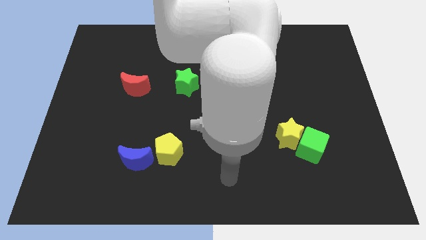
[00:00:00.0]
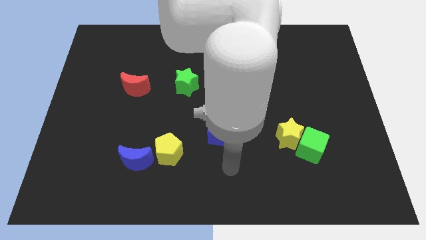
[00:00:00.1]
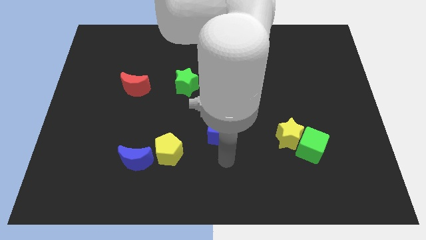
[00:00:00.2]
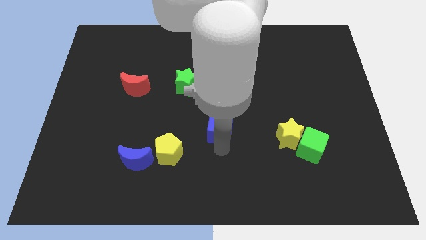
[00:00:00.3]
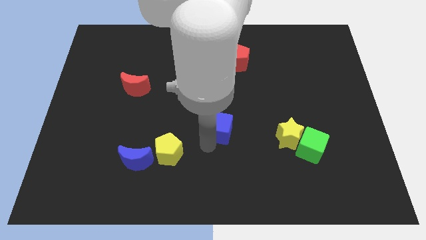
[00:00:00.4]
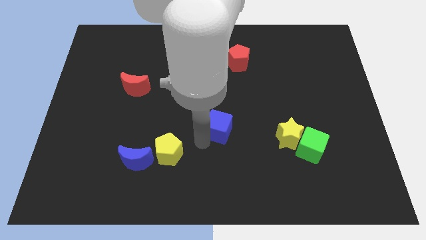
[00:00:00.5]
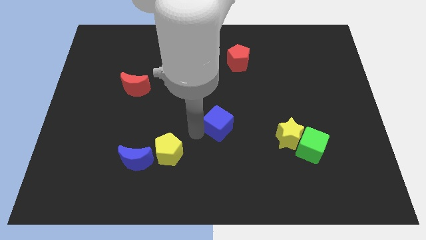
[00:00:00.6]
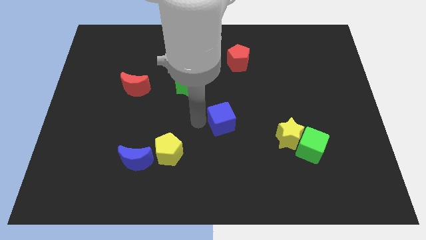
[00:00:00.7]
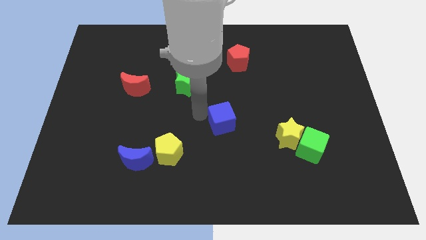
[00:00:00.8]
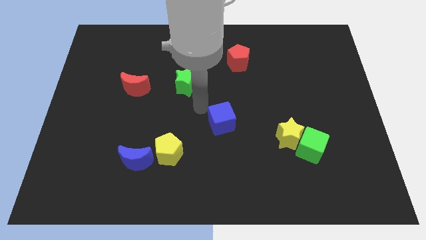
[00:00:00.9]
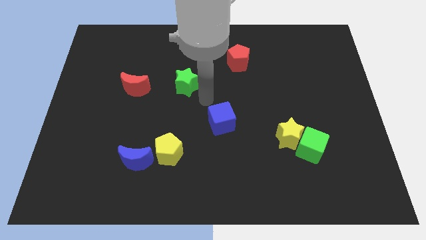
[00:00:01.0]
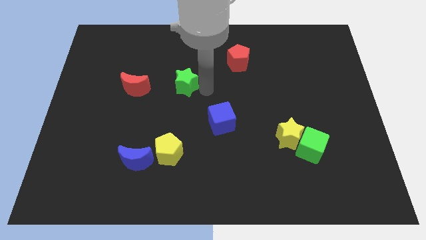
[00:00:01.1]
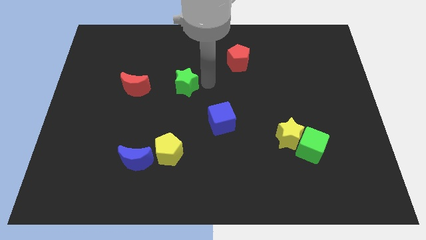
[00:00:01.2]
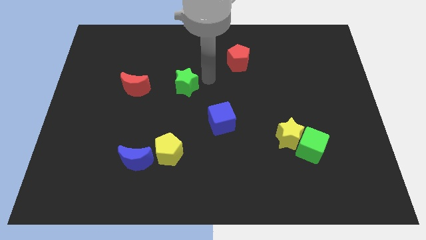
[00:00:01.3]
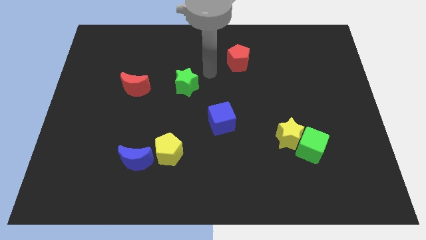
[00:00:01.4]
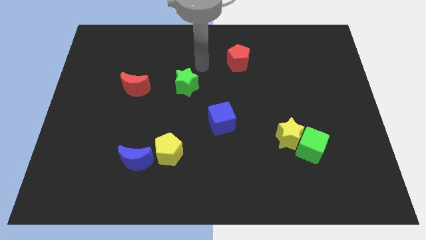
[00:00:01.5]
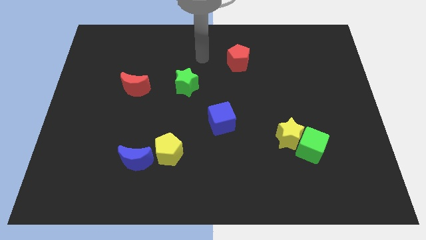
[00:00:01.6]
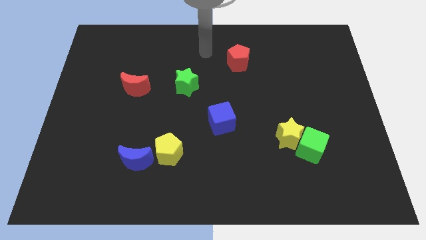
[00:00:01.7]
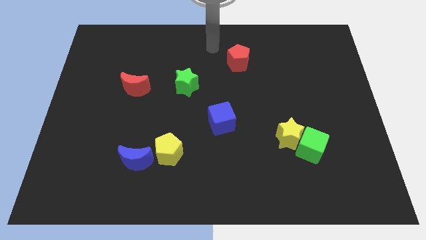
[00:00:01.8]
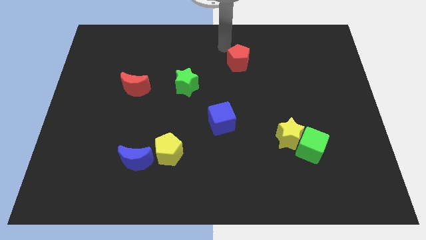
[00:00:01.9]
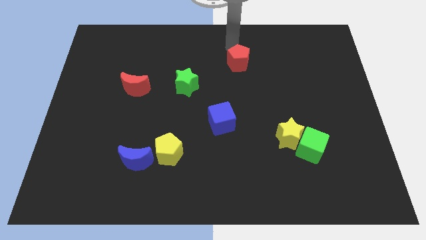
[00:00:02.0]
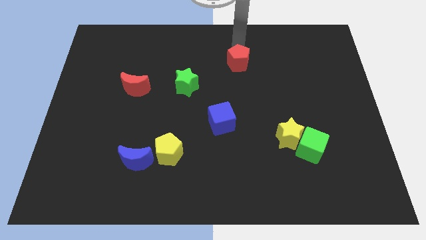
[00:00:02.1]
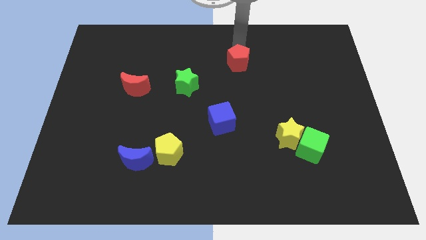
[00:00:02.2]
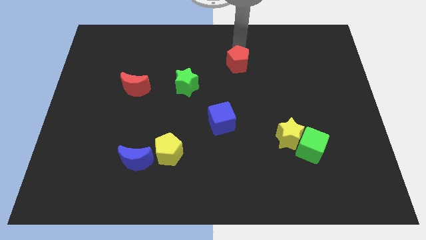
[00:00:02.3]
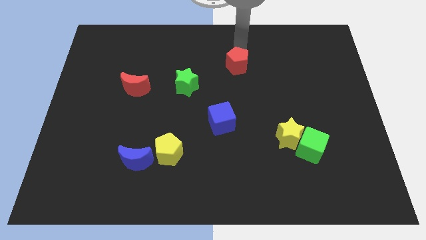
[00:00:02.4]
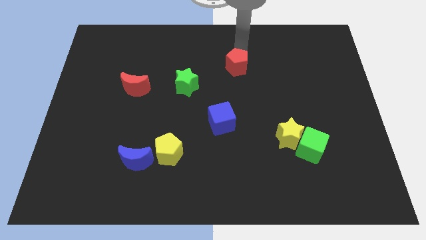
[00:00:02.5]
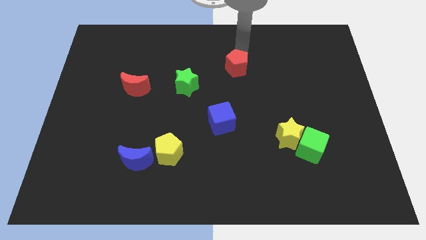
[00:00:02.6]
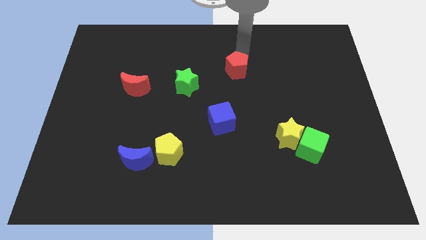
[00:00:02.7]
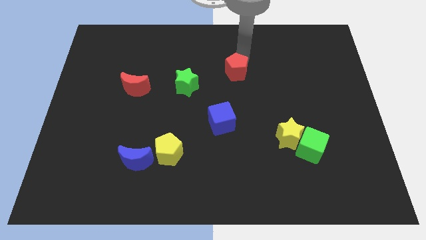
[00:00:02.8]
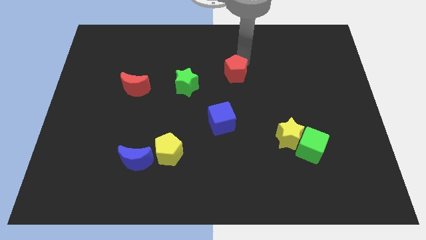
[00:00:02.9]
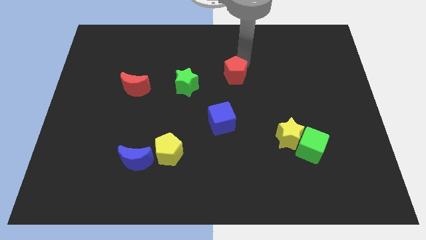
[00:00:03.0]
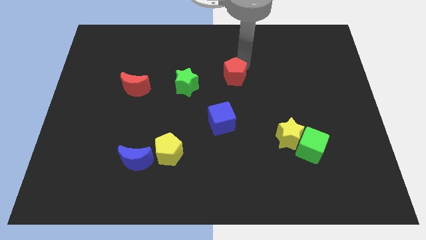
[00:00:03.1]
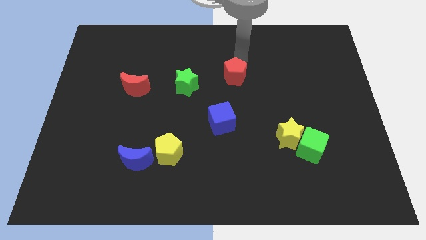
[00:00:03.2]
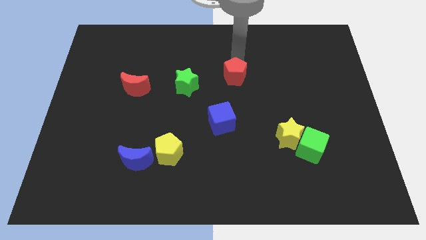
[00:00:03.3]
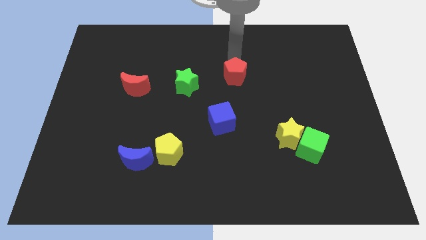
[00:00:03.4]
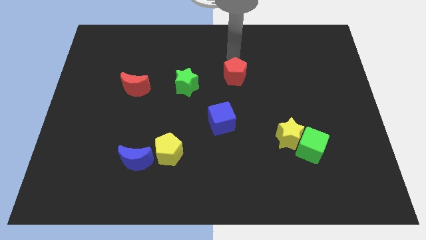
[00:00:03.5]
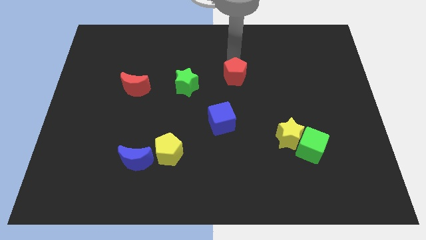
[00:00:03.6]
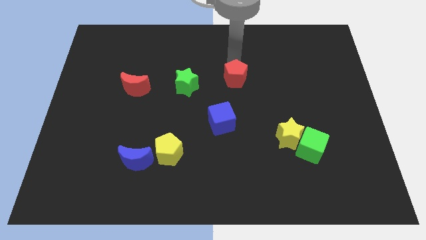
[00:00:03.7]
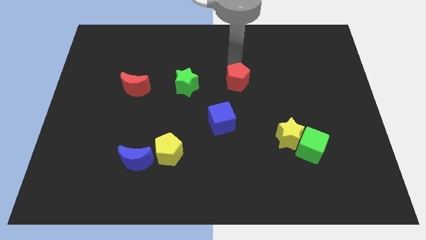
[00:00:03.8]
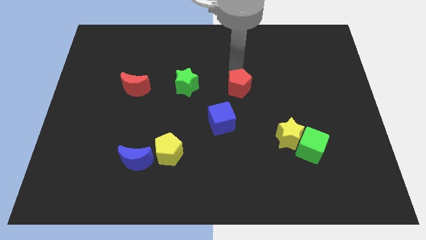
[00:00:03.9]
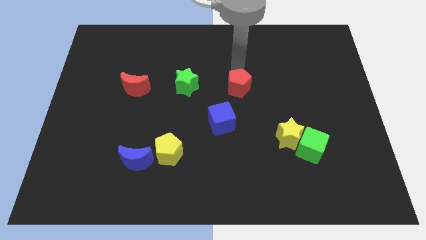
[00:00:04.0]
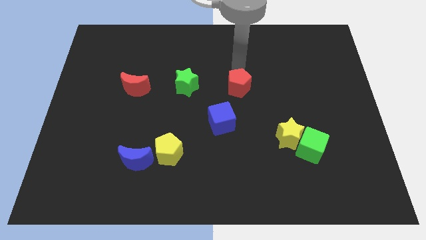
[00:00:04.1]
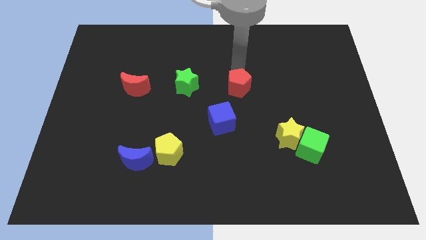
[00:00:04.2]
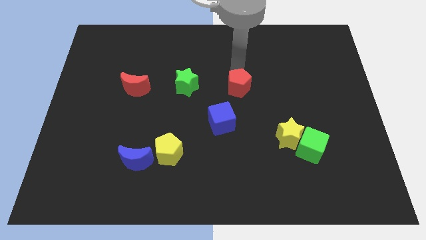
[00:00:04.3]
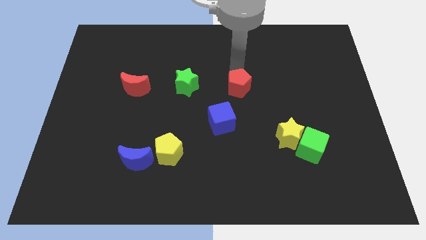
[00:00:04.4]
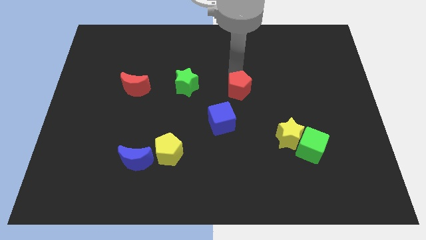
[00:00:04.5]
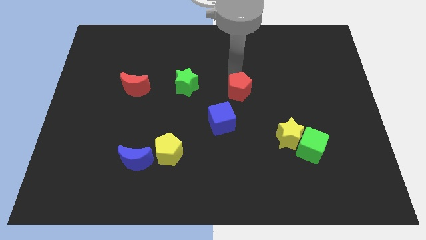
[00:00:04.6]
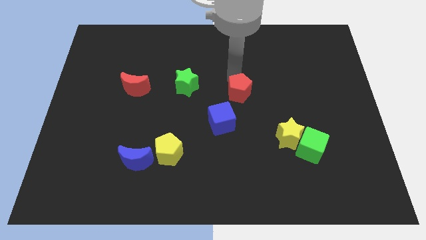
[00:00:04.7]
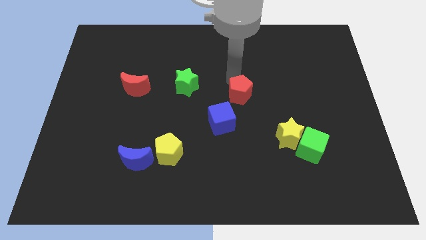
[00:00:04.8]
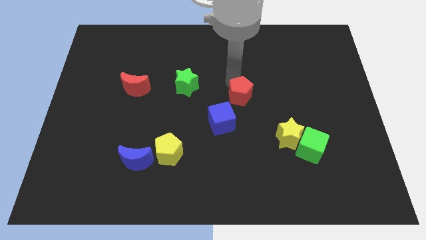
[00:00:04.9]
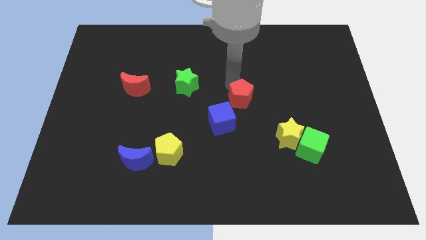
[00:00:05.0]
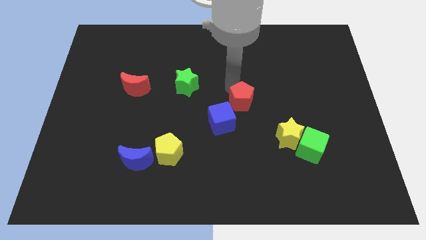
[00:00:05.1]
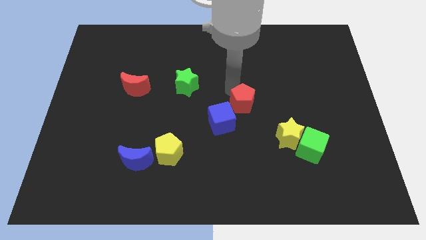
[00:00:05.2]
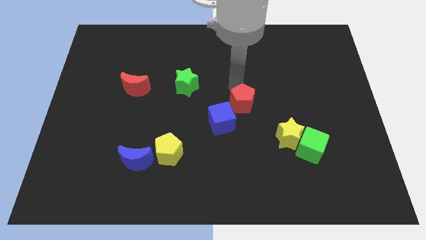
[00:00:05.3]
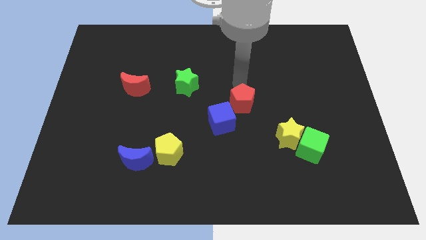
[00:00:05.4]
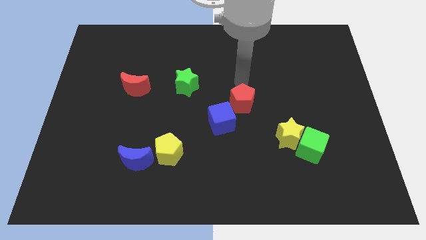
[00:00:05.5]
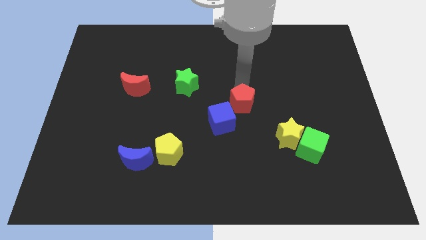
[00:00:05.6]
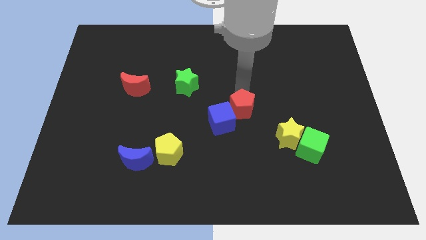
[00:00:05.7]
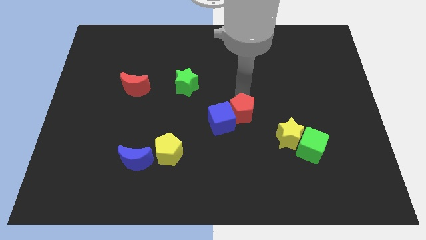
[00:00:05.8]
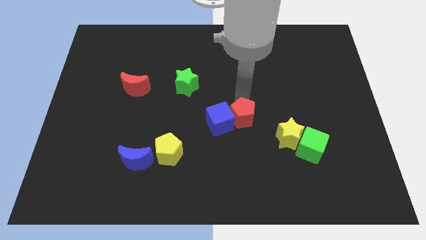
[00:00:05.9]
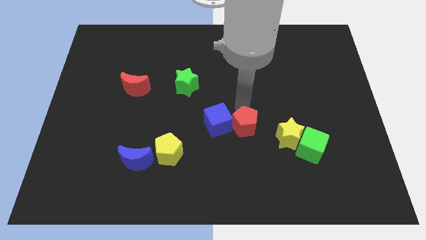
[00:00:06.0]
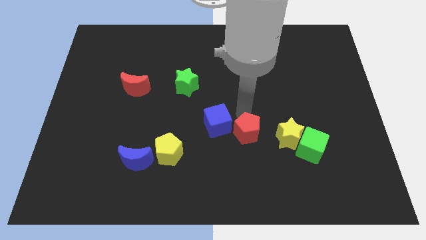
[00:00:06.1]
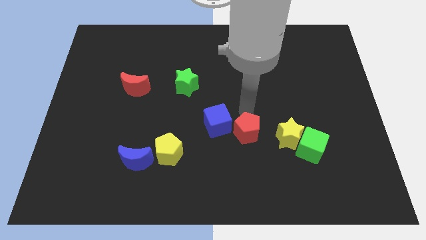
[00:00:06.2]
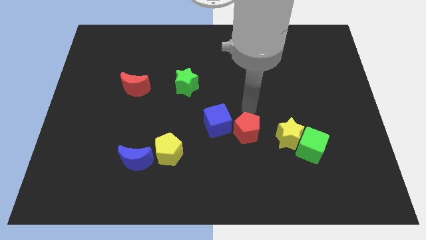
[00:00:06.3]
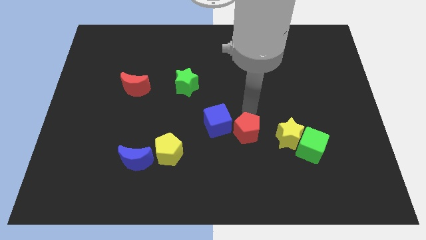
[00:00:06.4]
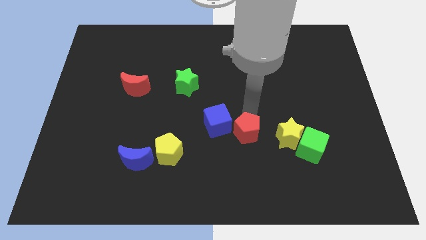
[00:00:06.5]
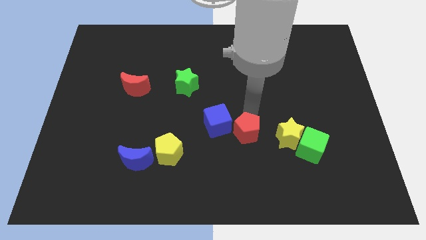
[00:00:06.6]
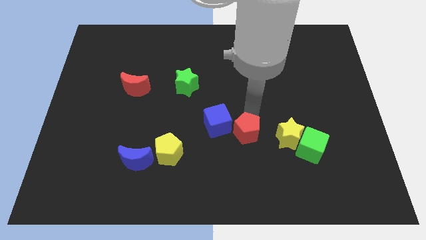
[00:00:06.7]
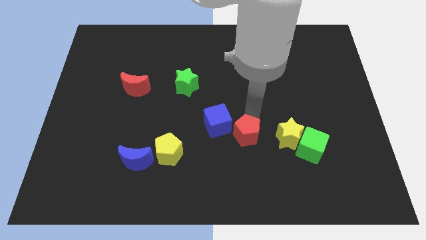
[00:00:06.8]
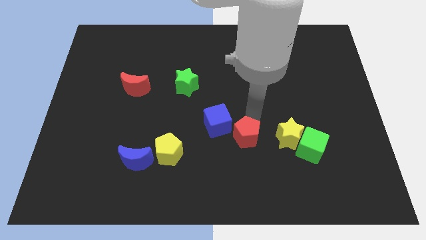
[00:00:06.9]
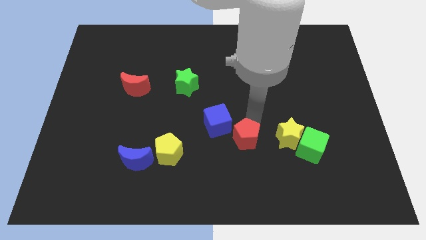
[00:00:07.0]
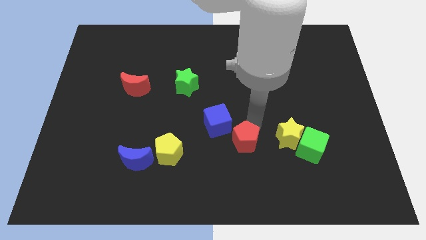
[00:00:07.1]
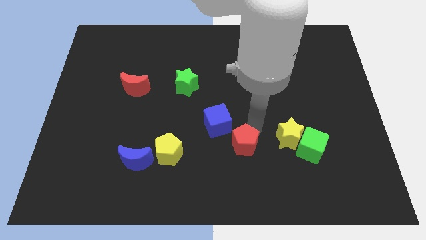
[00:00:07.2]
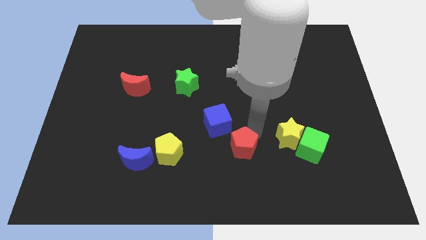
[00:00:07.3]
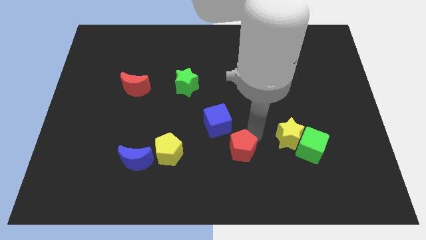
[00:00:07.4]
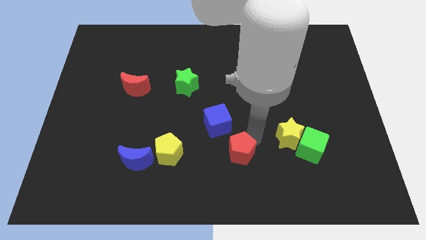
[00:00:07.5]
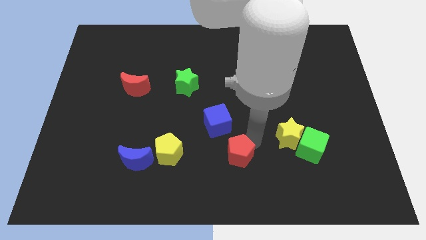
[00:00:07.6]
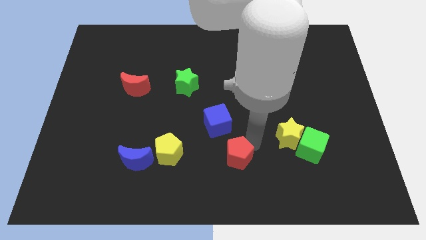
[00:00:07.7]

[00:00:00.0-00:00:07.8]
move the red pentagon to the bottom side
